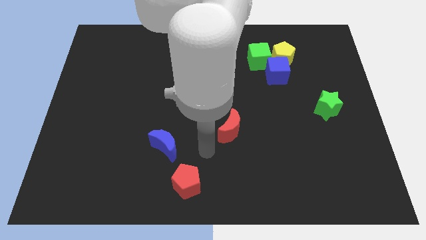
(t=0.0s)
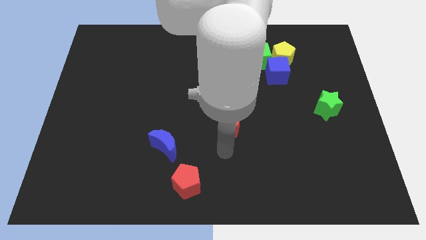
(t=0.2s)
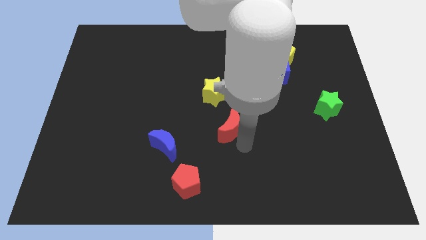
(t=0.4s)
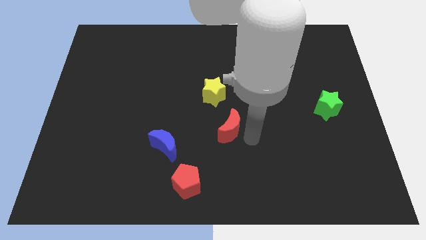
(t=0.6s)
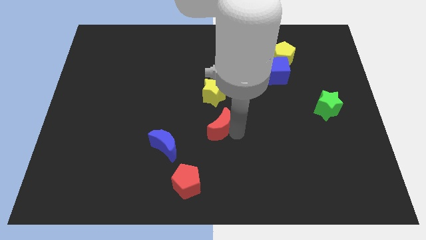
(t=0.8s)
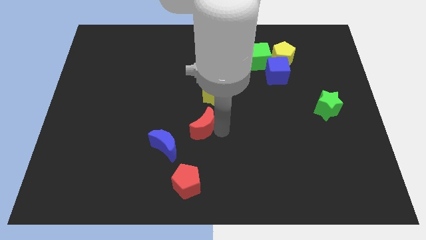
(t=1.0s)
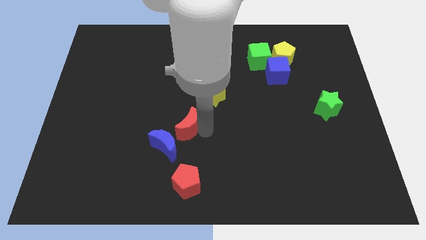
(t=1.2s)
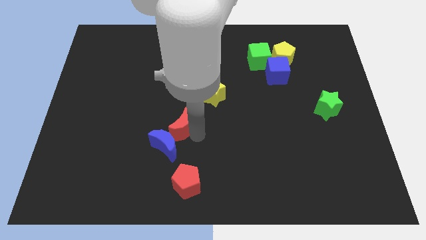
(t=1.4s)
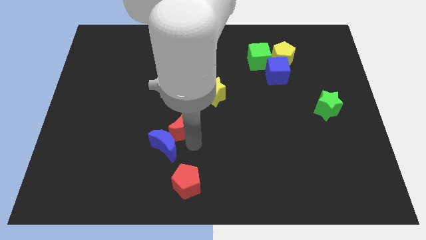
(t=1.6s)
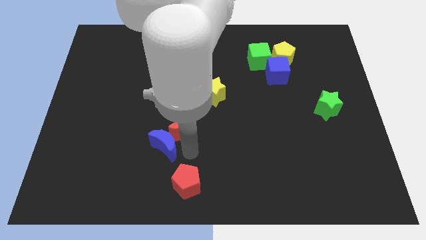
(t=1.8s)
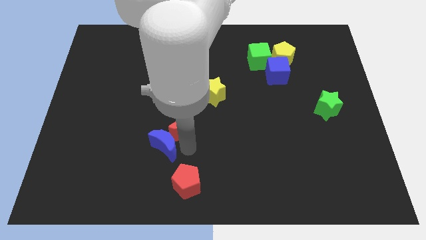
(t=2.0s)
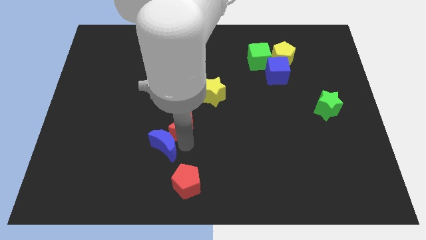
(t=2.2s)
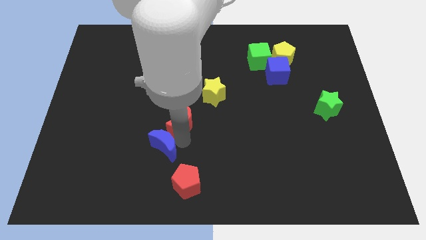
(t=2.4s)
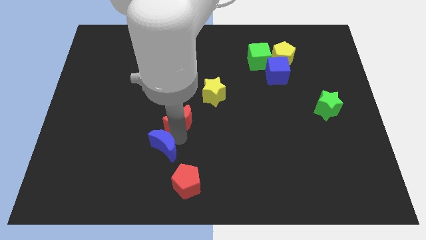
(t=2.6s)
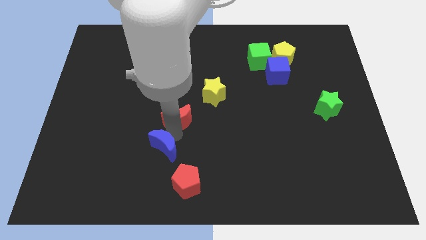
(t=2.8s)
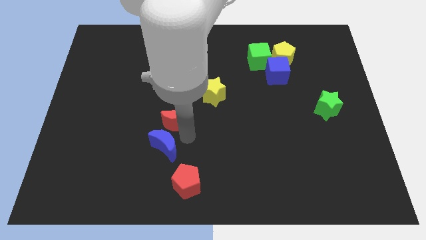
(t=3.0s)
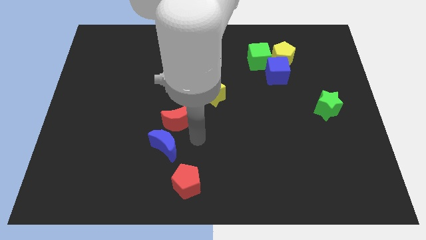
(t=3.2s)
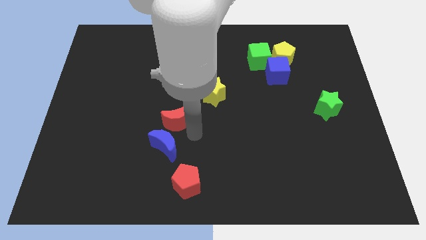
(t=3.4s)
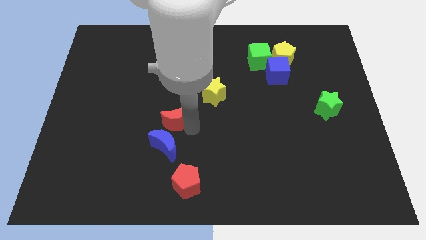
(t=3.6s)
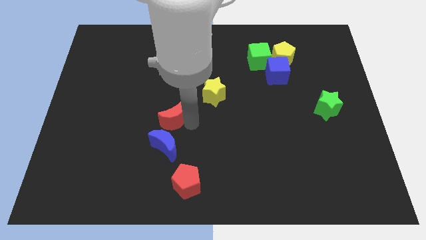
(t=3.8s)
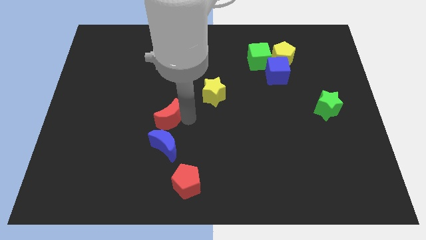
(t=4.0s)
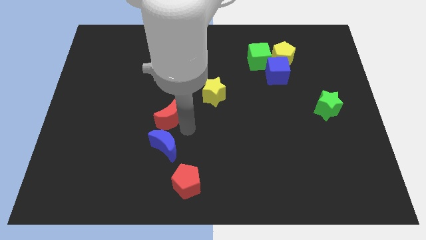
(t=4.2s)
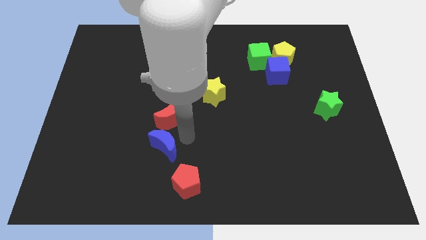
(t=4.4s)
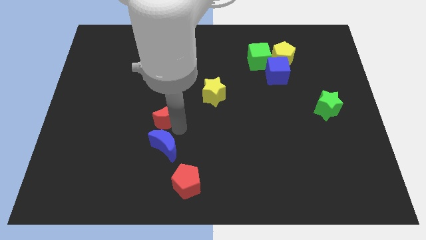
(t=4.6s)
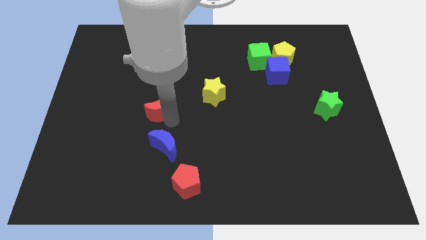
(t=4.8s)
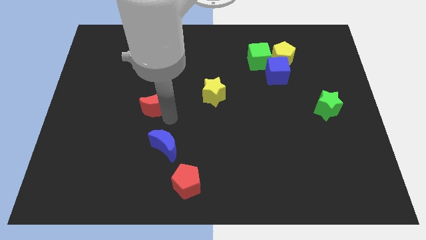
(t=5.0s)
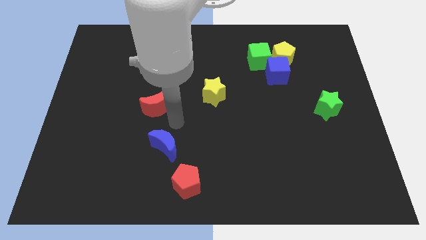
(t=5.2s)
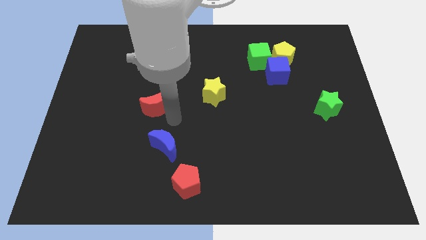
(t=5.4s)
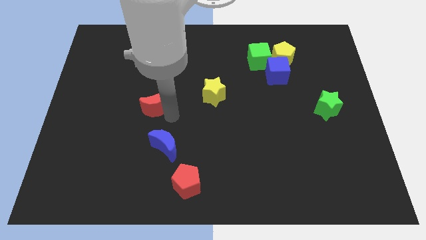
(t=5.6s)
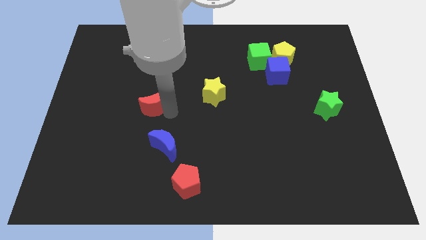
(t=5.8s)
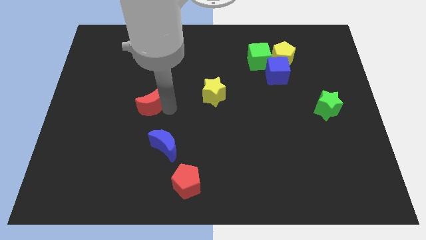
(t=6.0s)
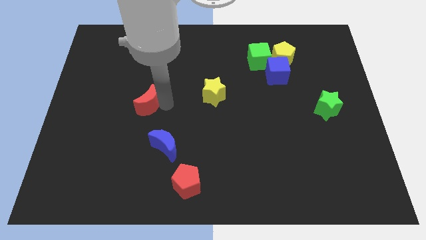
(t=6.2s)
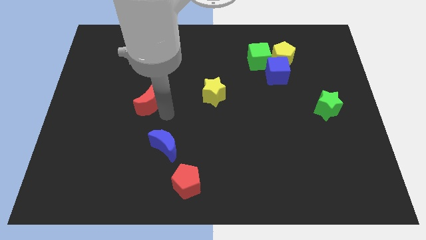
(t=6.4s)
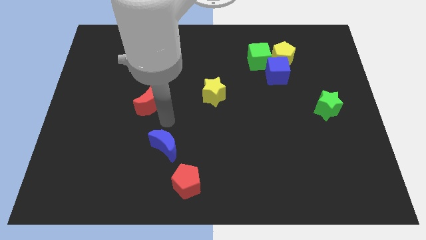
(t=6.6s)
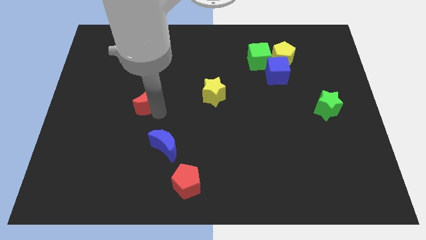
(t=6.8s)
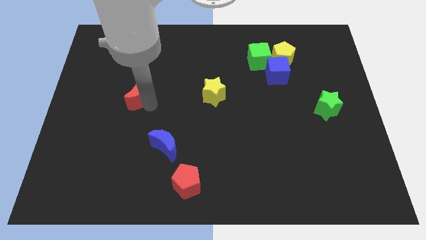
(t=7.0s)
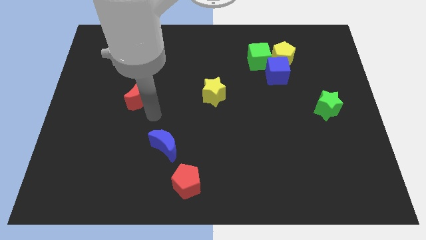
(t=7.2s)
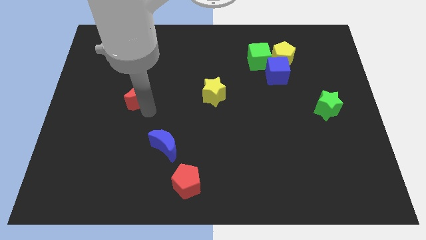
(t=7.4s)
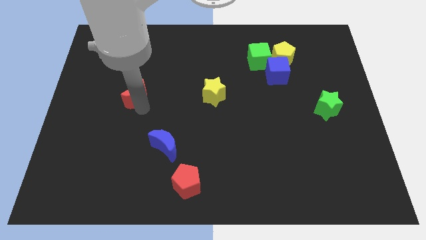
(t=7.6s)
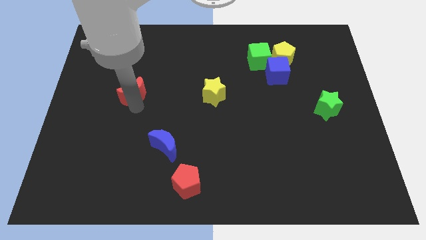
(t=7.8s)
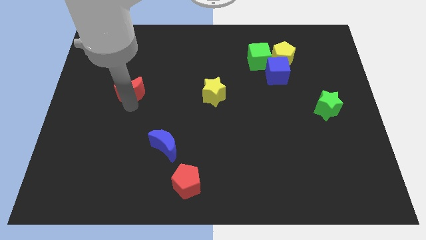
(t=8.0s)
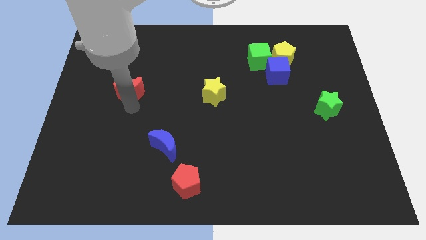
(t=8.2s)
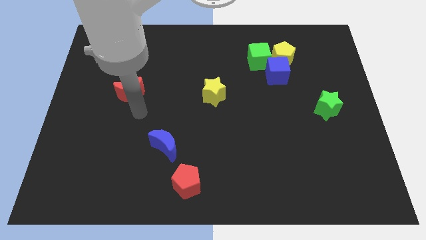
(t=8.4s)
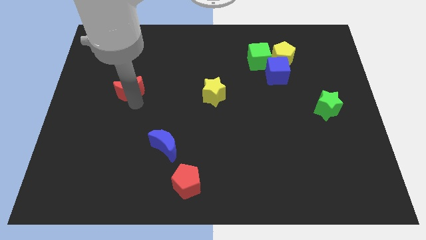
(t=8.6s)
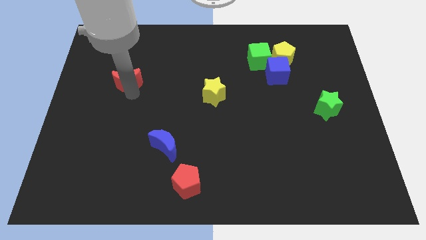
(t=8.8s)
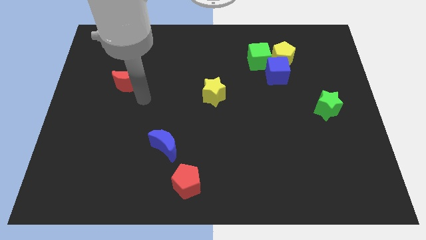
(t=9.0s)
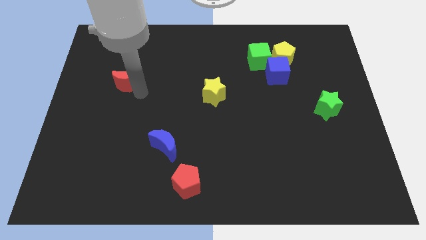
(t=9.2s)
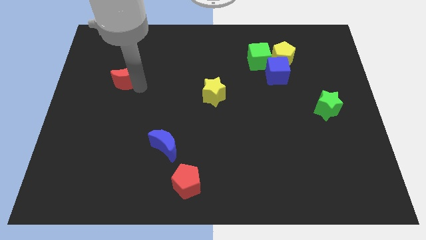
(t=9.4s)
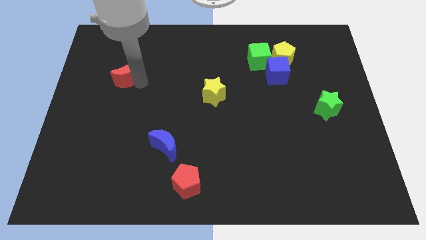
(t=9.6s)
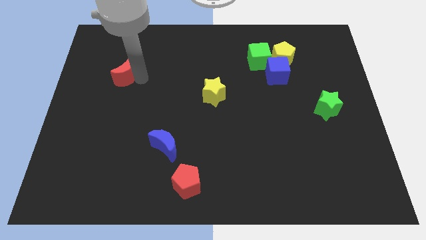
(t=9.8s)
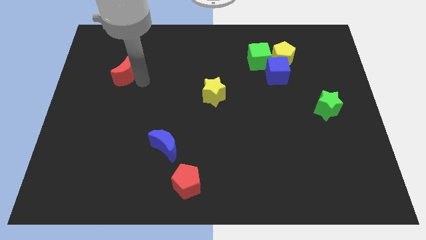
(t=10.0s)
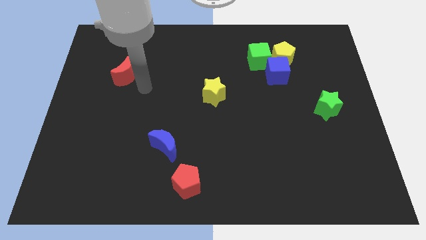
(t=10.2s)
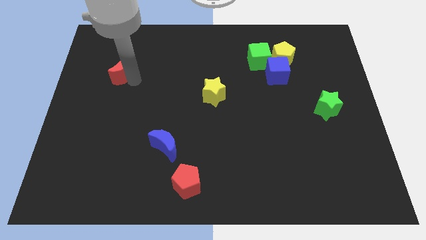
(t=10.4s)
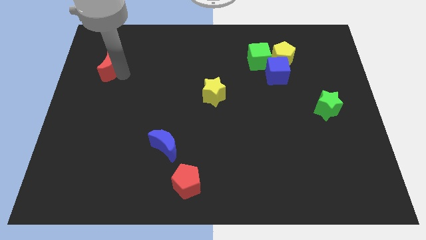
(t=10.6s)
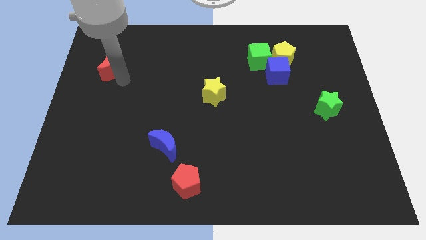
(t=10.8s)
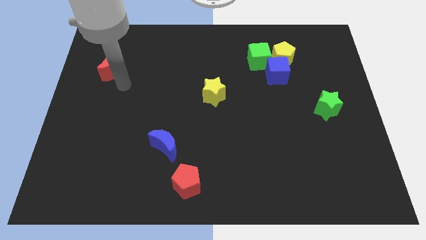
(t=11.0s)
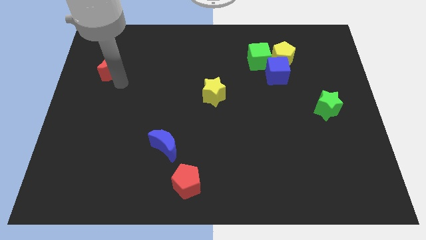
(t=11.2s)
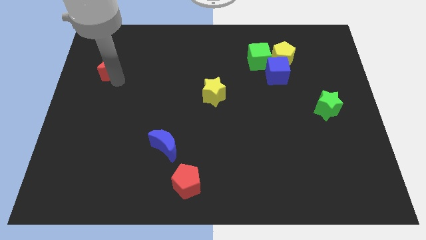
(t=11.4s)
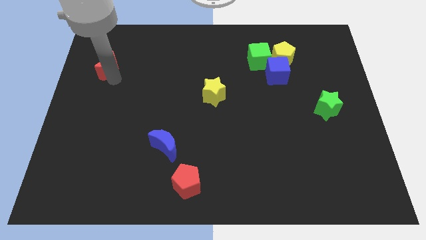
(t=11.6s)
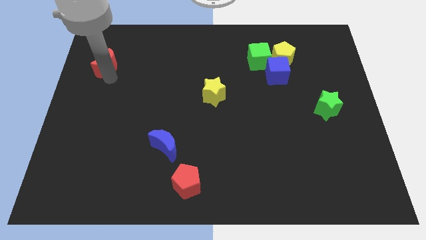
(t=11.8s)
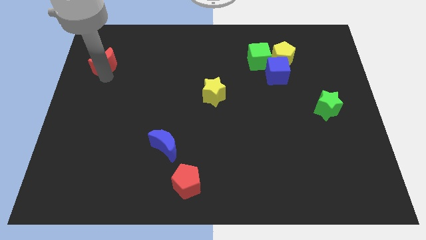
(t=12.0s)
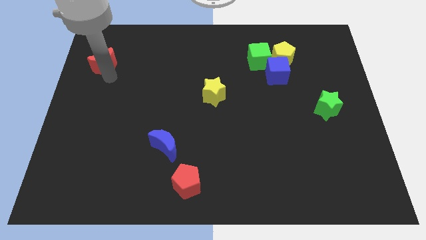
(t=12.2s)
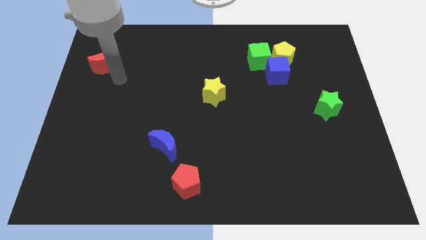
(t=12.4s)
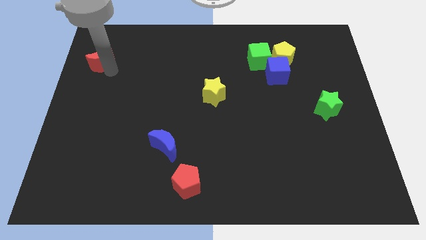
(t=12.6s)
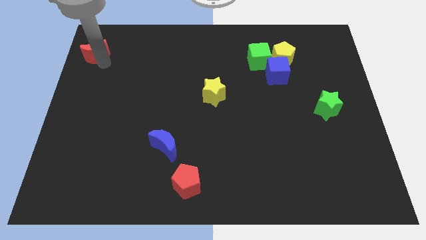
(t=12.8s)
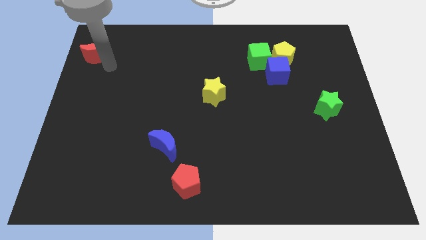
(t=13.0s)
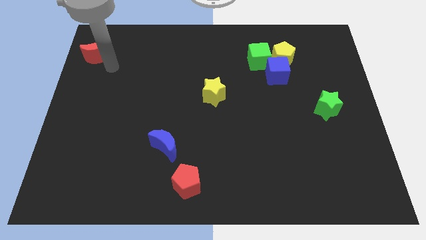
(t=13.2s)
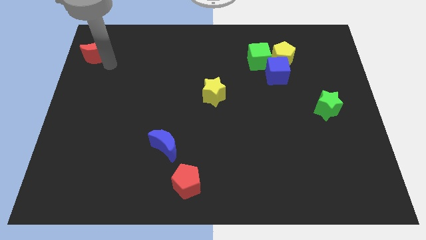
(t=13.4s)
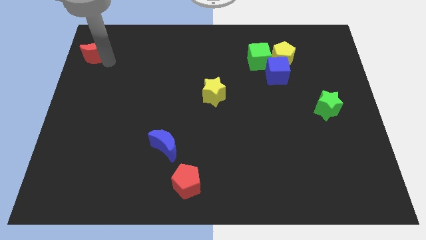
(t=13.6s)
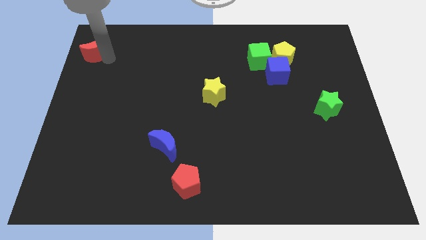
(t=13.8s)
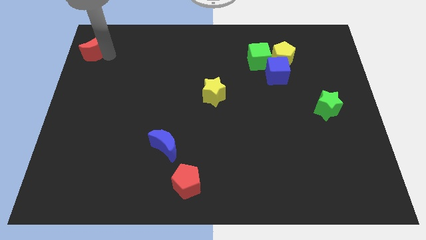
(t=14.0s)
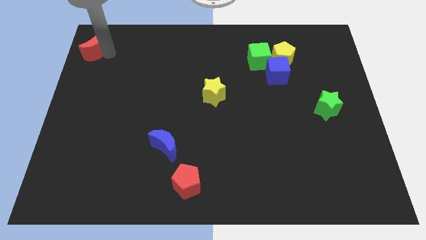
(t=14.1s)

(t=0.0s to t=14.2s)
slide the red moon to the top left
